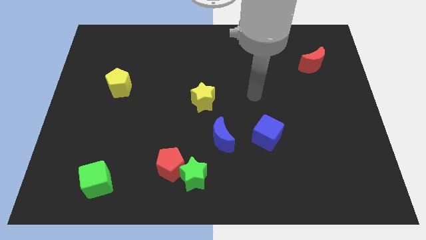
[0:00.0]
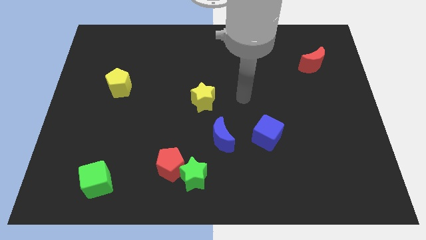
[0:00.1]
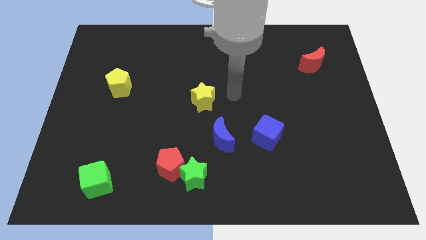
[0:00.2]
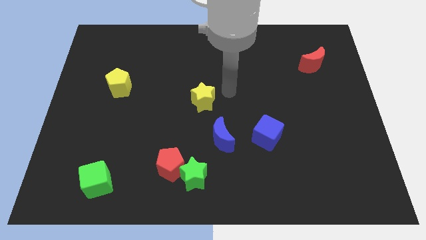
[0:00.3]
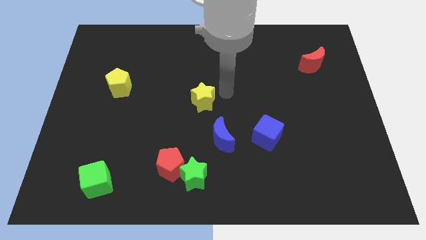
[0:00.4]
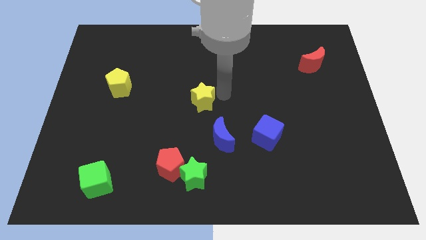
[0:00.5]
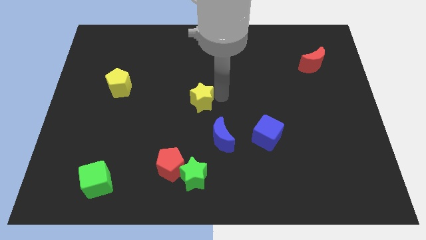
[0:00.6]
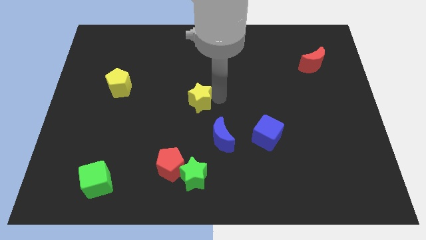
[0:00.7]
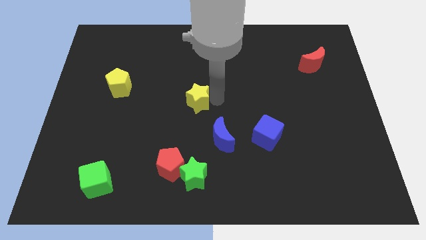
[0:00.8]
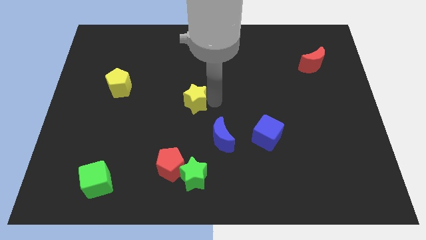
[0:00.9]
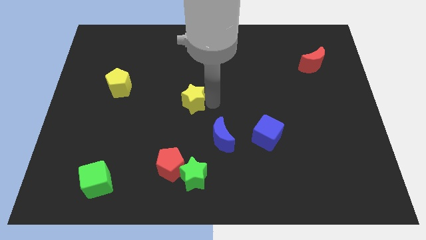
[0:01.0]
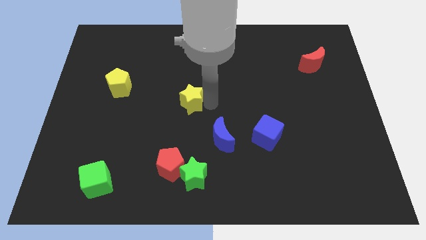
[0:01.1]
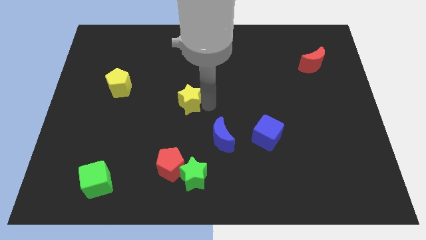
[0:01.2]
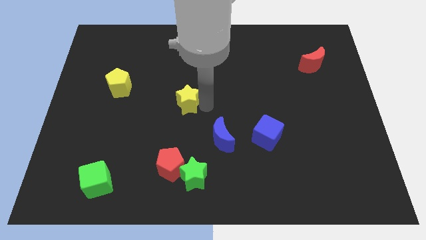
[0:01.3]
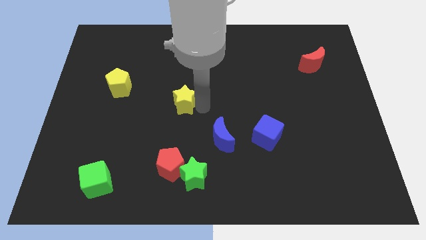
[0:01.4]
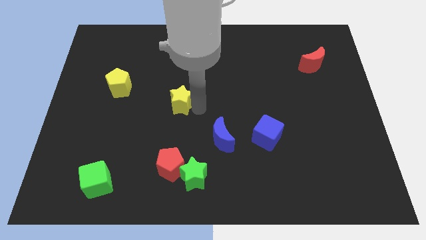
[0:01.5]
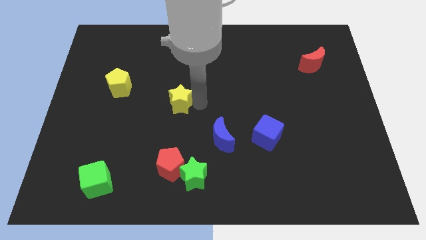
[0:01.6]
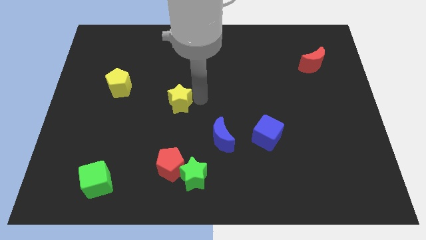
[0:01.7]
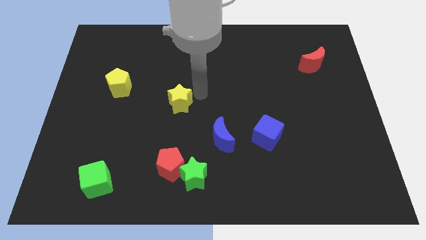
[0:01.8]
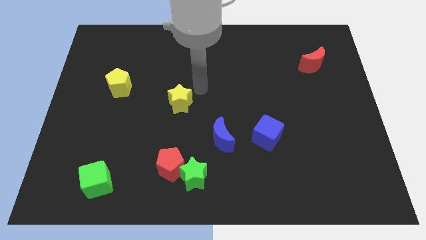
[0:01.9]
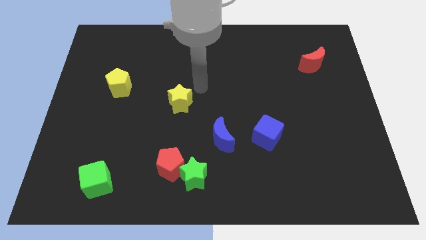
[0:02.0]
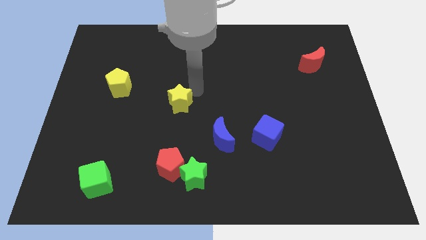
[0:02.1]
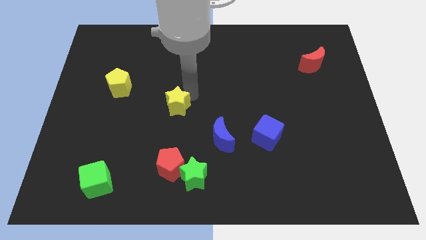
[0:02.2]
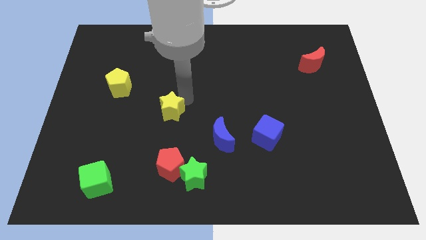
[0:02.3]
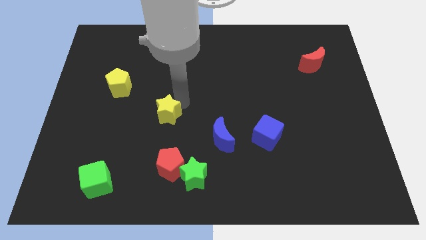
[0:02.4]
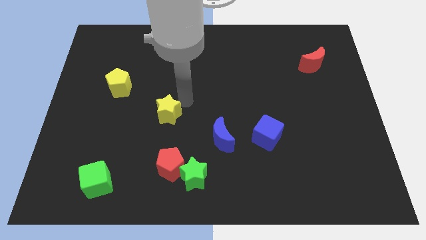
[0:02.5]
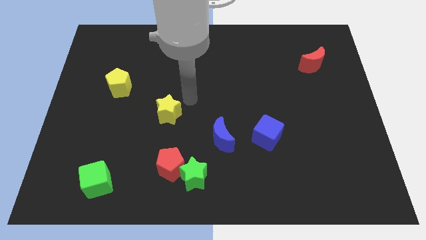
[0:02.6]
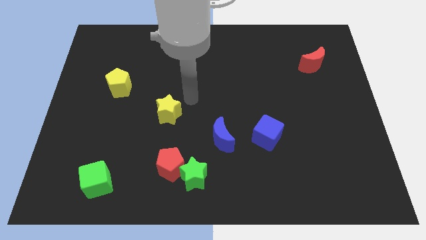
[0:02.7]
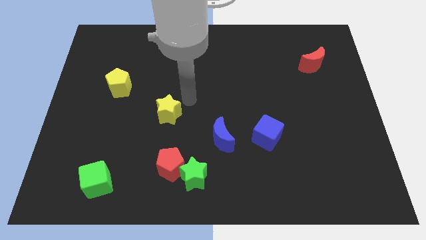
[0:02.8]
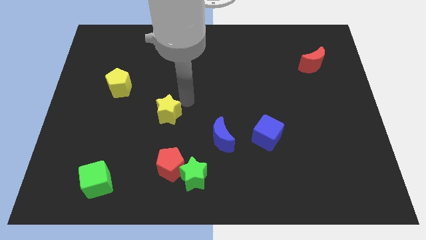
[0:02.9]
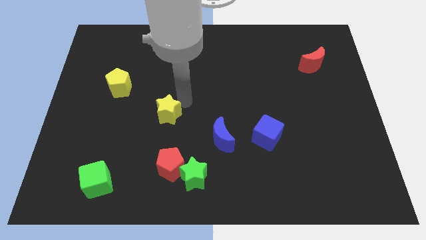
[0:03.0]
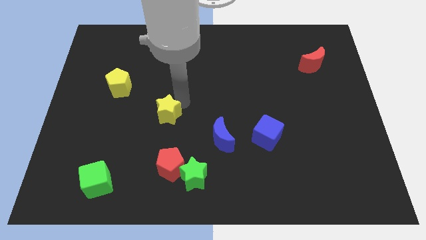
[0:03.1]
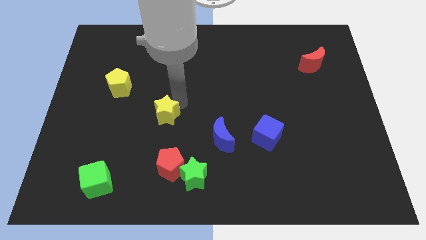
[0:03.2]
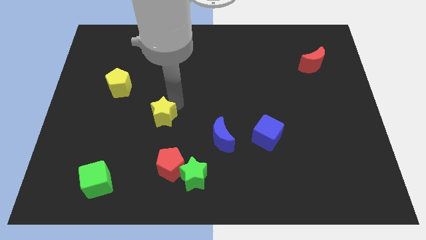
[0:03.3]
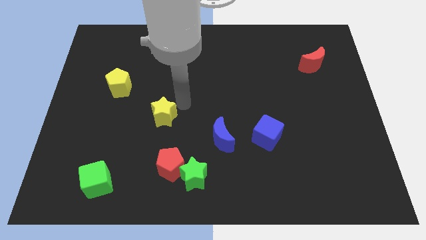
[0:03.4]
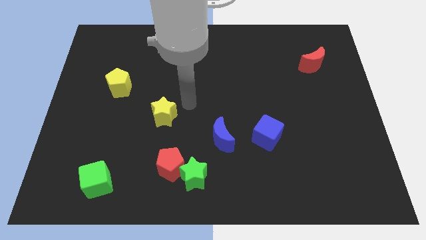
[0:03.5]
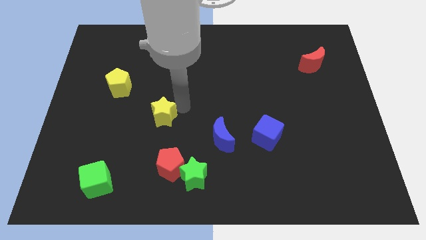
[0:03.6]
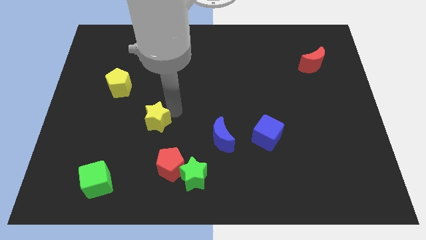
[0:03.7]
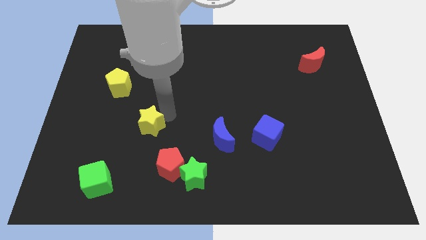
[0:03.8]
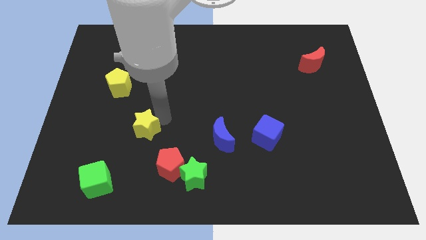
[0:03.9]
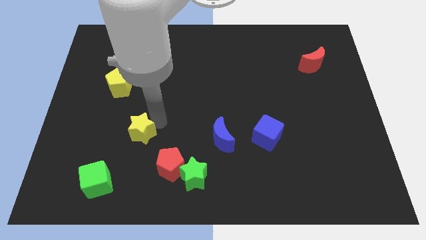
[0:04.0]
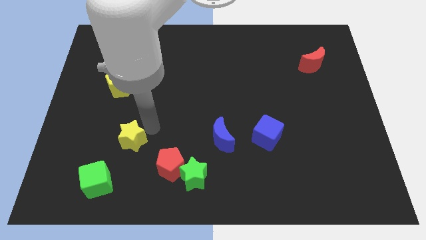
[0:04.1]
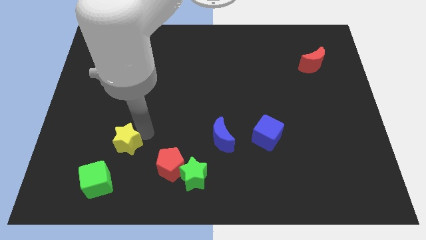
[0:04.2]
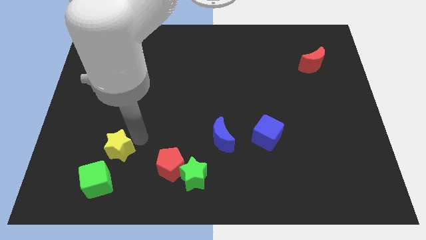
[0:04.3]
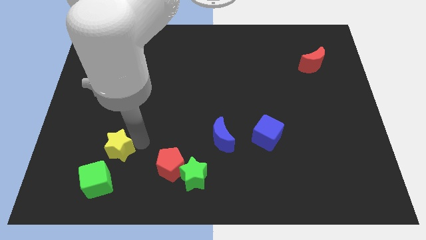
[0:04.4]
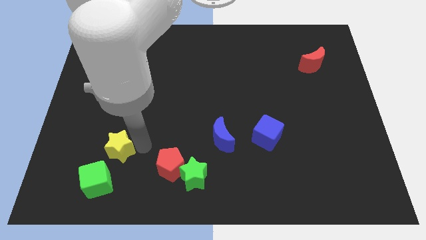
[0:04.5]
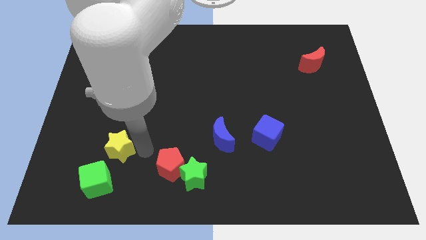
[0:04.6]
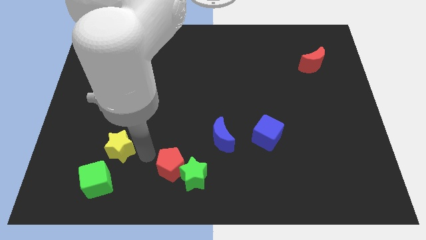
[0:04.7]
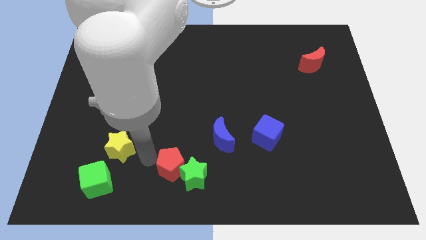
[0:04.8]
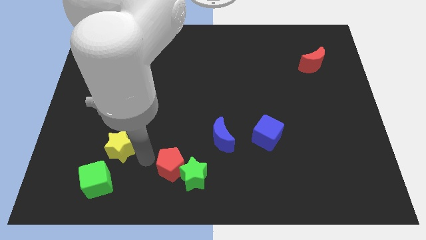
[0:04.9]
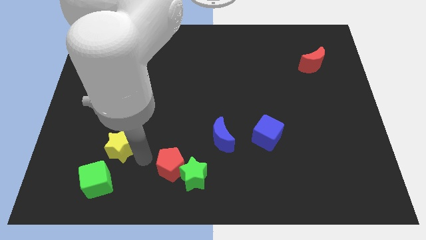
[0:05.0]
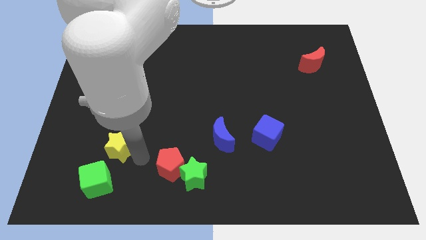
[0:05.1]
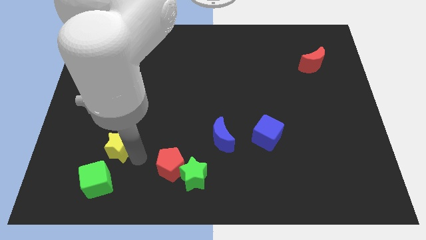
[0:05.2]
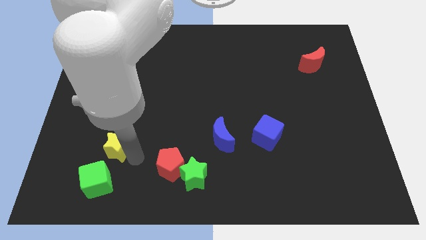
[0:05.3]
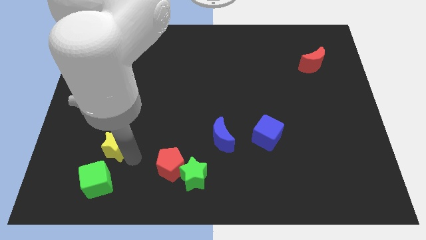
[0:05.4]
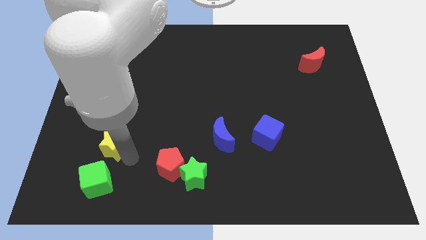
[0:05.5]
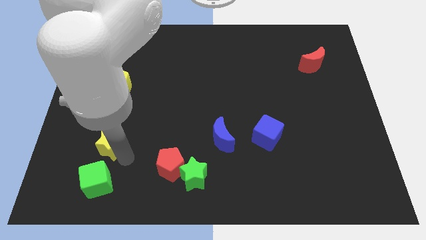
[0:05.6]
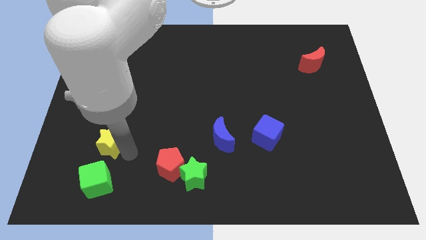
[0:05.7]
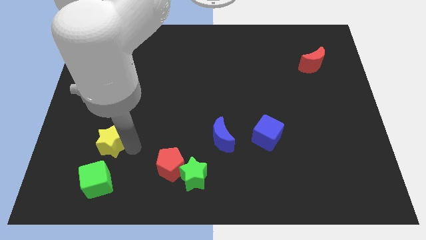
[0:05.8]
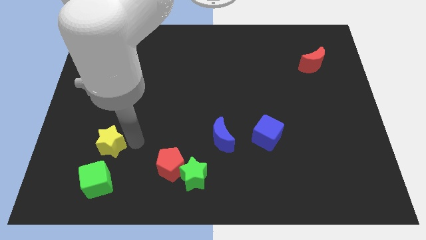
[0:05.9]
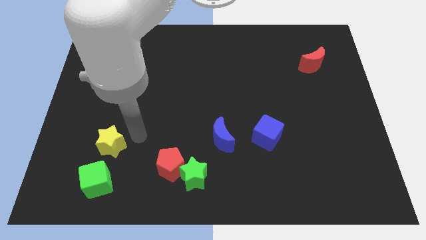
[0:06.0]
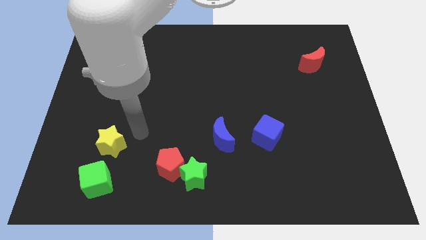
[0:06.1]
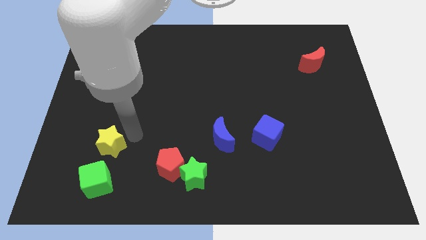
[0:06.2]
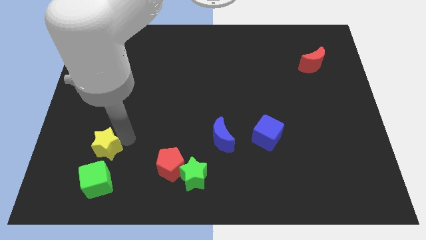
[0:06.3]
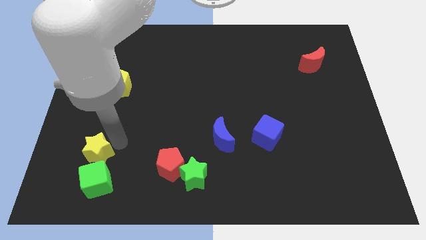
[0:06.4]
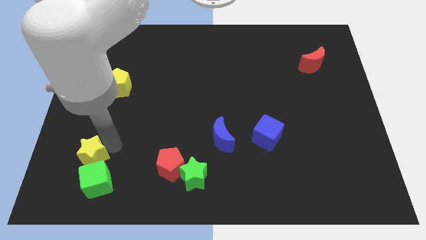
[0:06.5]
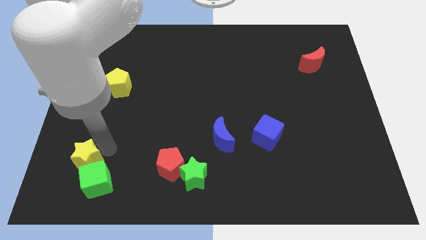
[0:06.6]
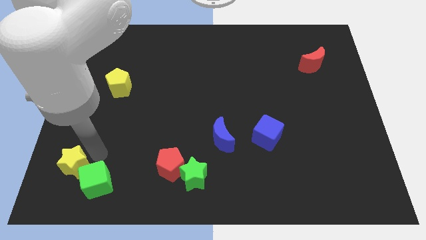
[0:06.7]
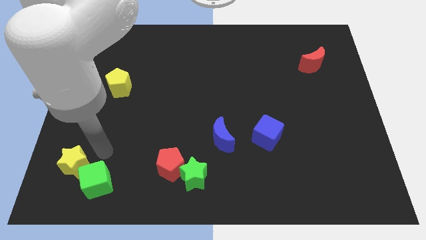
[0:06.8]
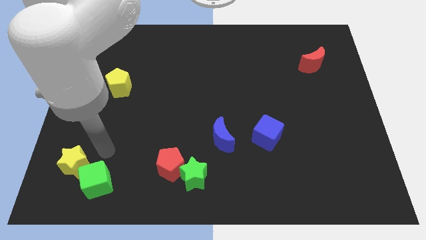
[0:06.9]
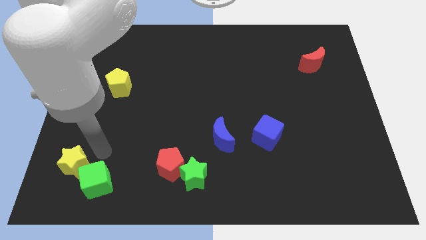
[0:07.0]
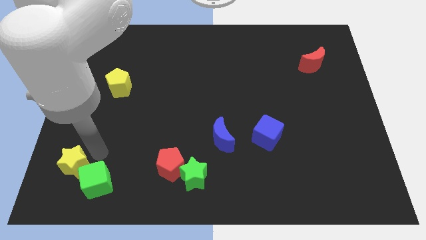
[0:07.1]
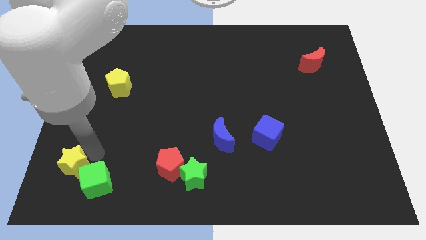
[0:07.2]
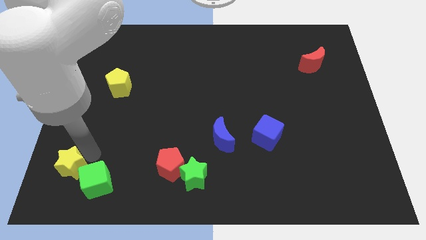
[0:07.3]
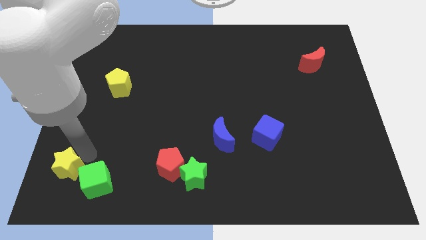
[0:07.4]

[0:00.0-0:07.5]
push the yellow star to the bottom left corner
